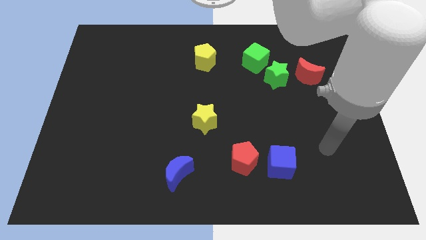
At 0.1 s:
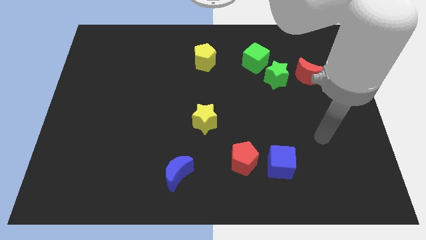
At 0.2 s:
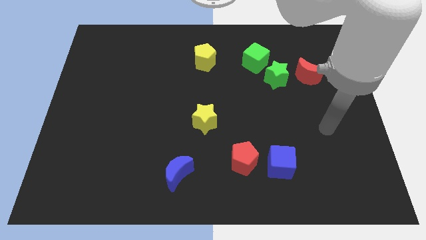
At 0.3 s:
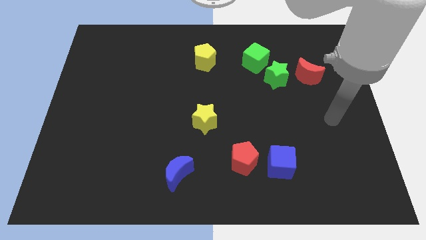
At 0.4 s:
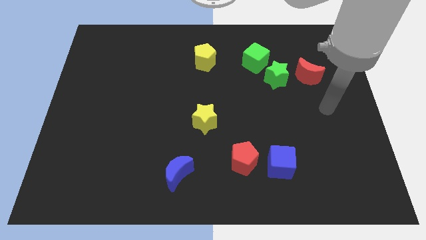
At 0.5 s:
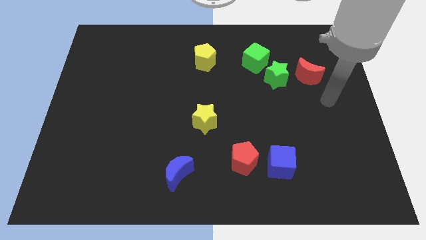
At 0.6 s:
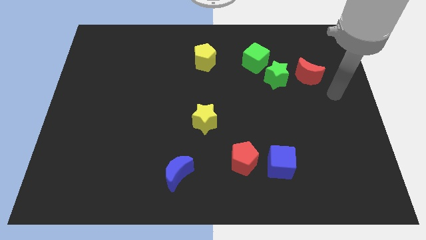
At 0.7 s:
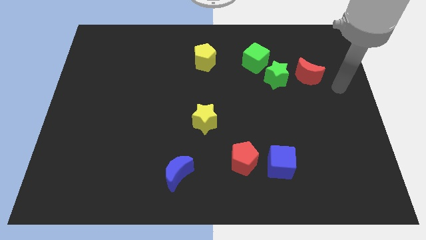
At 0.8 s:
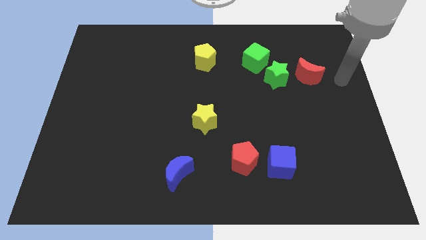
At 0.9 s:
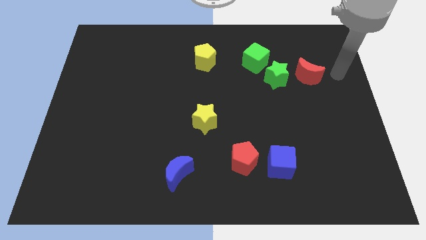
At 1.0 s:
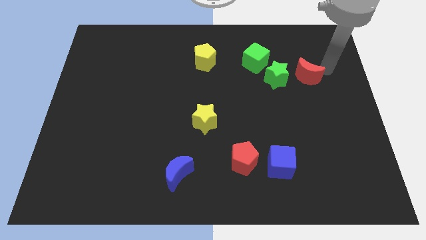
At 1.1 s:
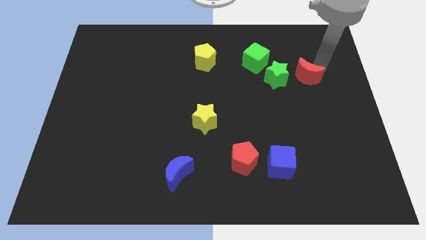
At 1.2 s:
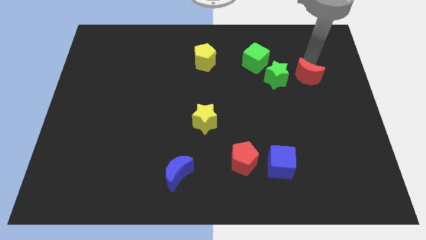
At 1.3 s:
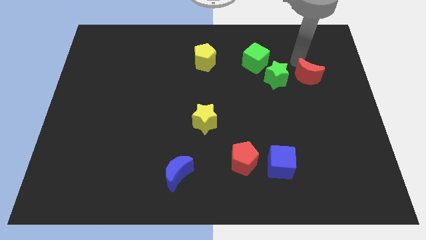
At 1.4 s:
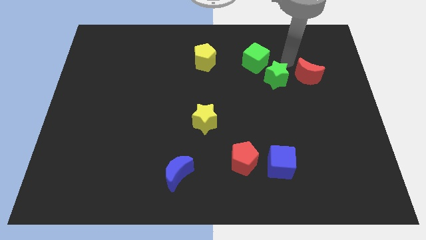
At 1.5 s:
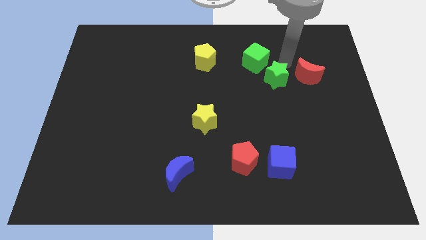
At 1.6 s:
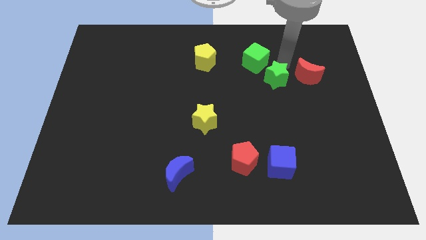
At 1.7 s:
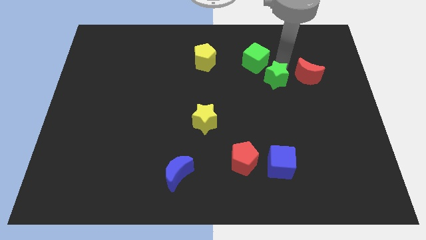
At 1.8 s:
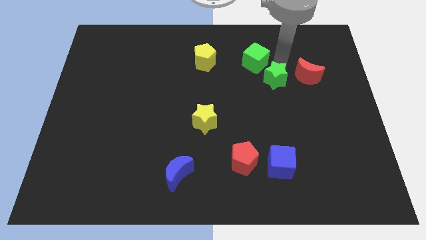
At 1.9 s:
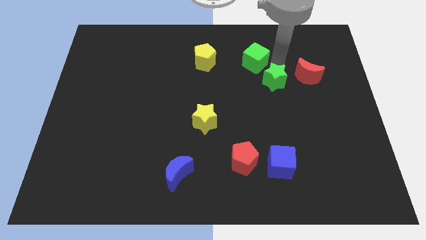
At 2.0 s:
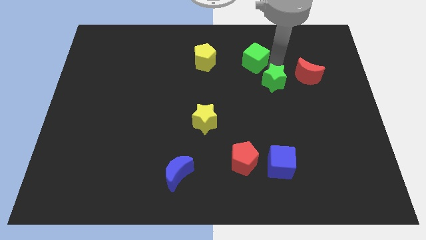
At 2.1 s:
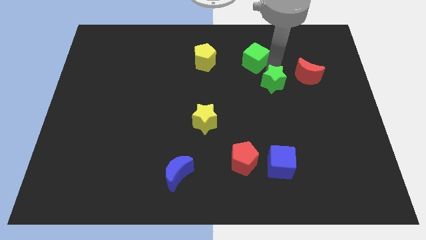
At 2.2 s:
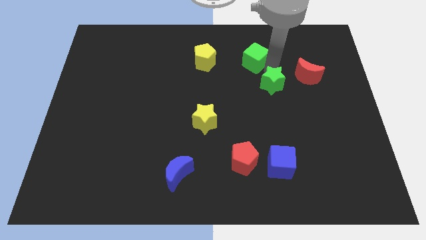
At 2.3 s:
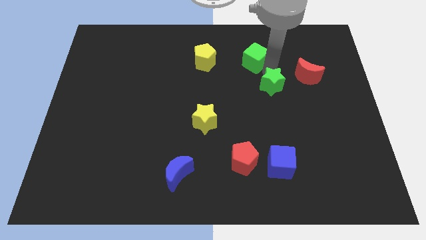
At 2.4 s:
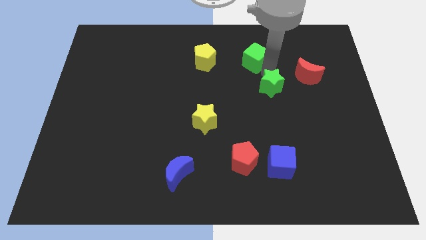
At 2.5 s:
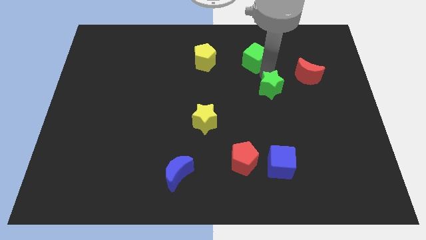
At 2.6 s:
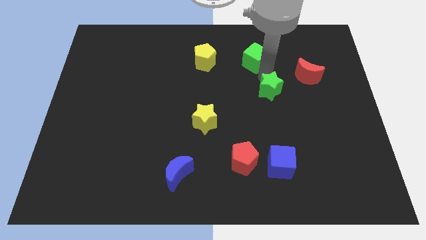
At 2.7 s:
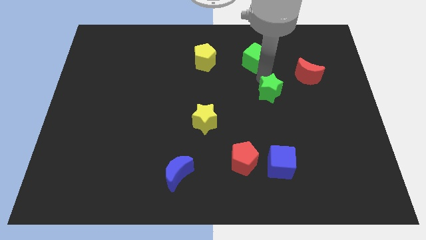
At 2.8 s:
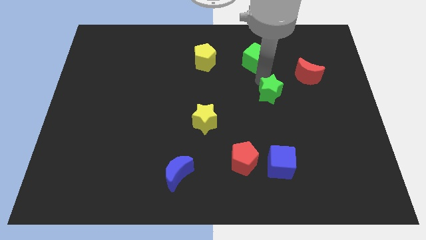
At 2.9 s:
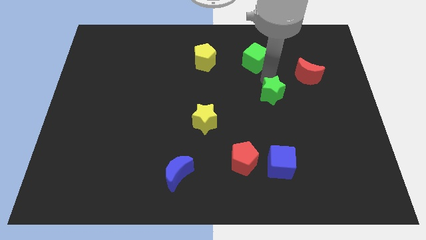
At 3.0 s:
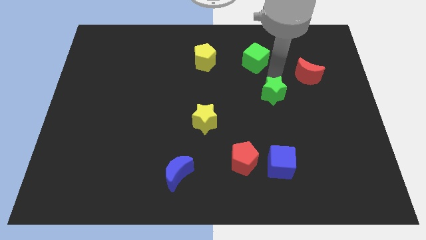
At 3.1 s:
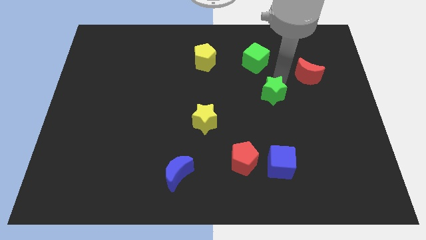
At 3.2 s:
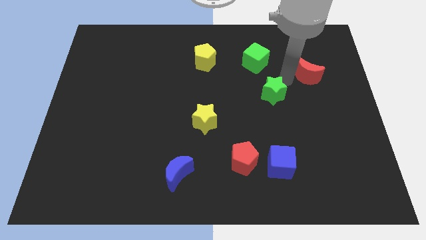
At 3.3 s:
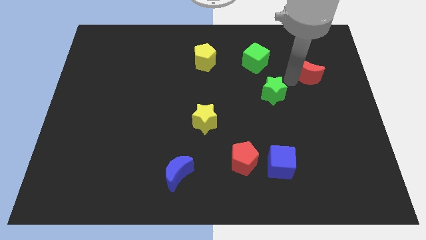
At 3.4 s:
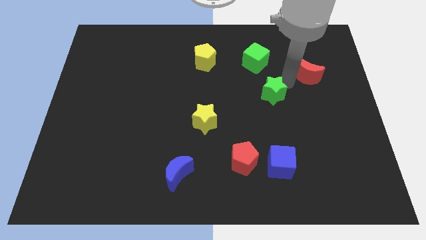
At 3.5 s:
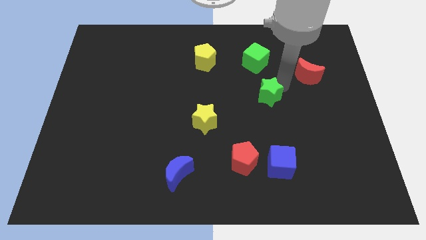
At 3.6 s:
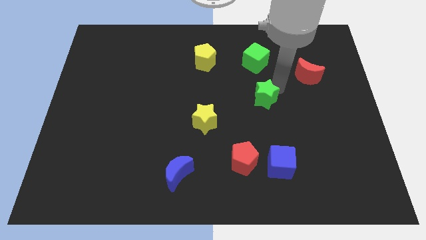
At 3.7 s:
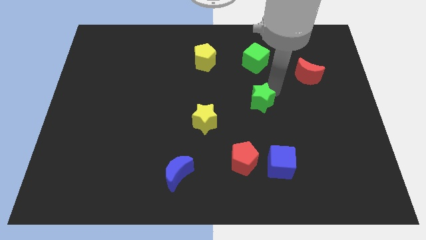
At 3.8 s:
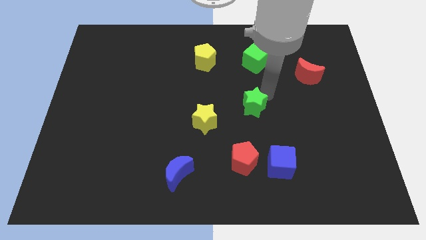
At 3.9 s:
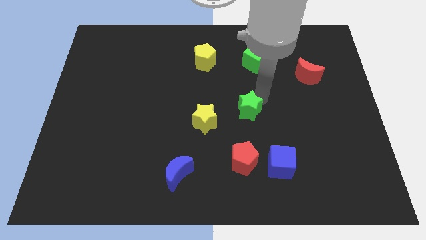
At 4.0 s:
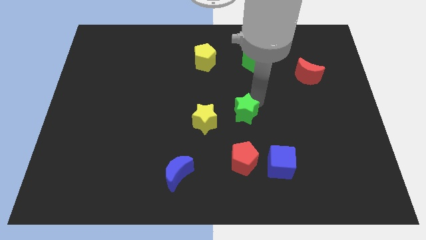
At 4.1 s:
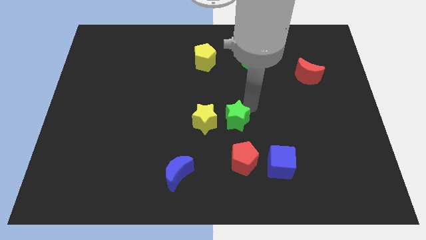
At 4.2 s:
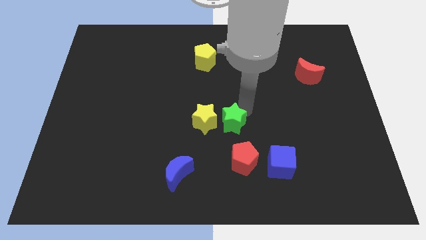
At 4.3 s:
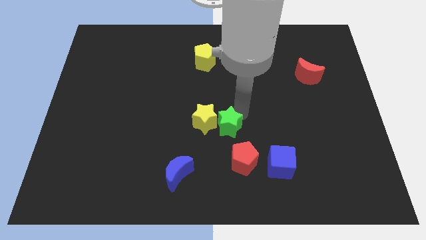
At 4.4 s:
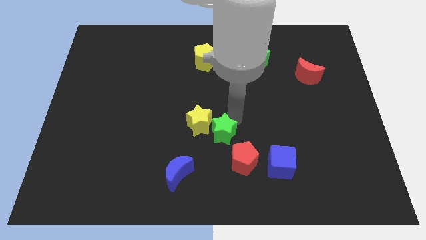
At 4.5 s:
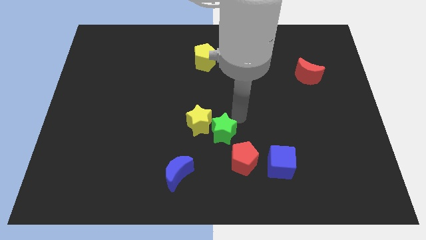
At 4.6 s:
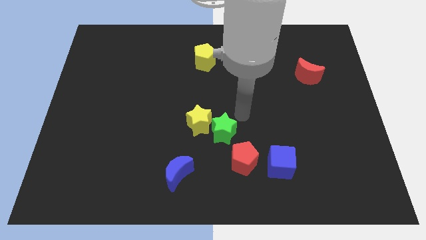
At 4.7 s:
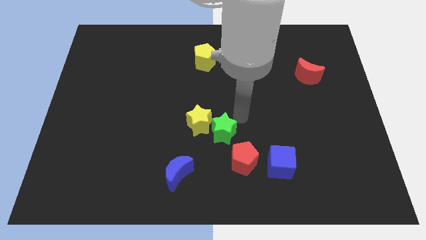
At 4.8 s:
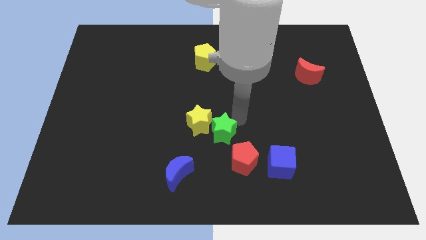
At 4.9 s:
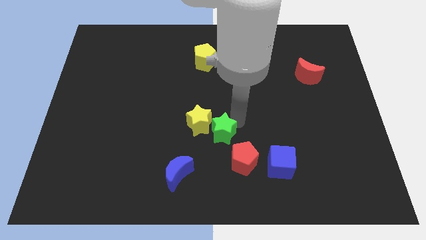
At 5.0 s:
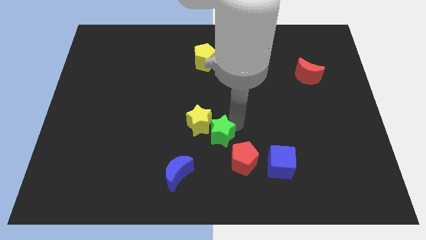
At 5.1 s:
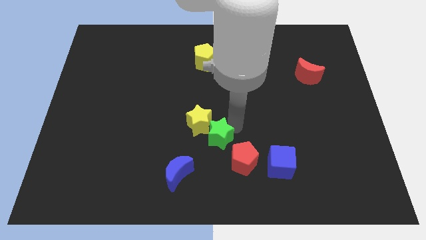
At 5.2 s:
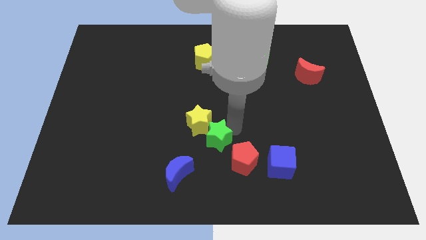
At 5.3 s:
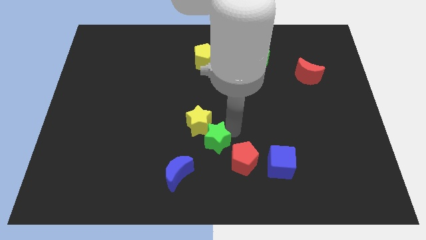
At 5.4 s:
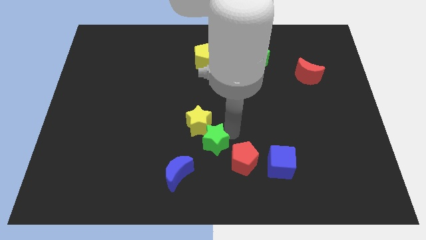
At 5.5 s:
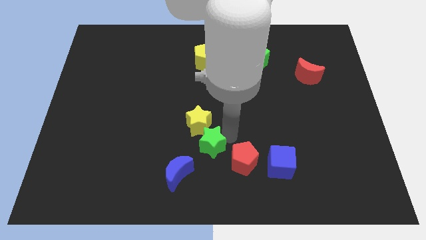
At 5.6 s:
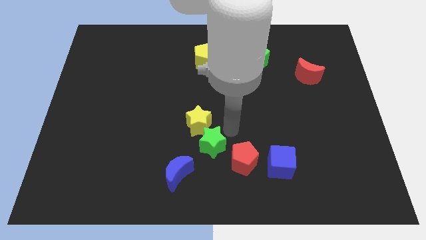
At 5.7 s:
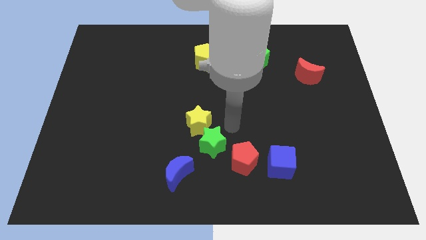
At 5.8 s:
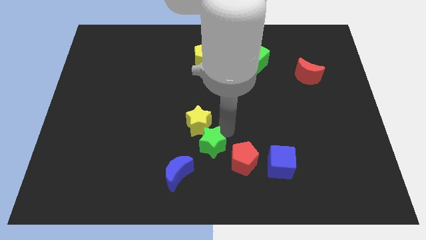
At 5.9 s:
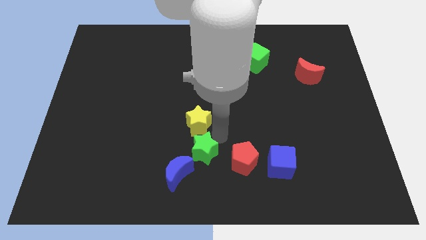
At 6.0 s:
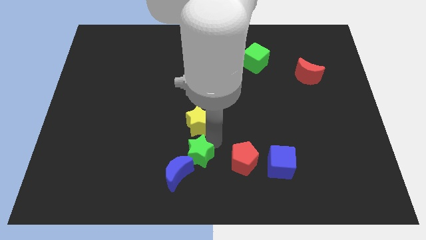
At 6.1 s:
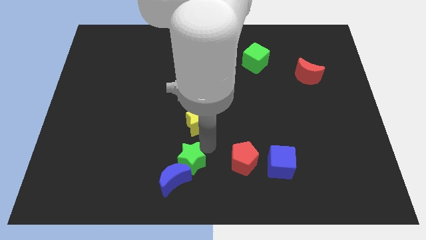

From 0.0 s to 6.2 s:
slide the green star next to the blue moon

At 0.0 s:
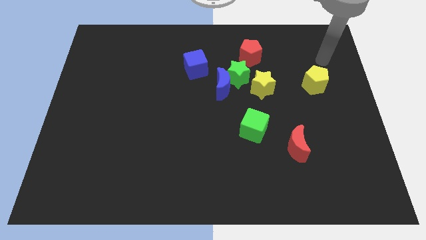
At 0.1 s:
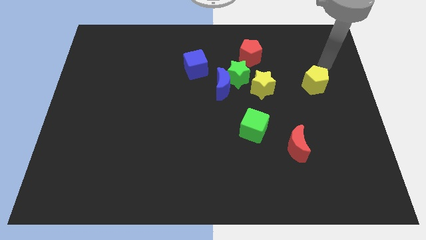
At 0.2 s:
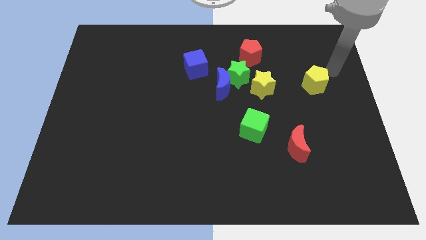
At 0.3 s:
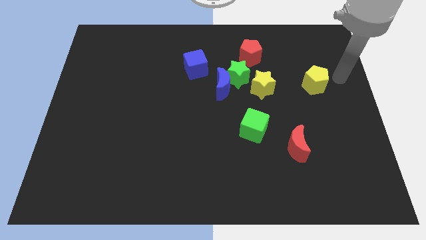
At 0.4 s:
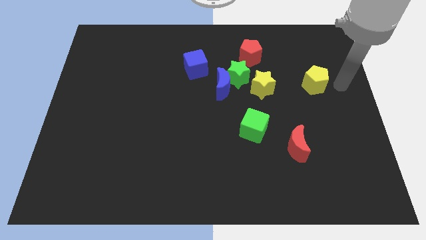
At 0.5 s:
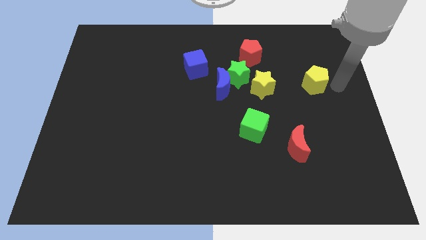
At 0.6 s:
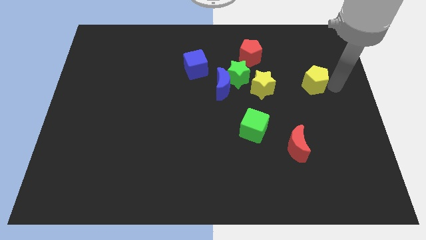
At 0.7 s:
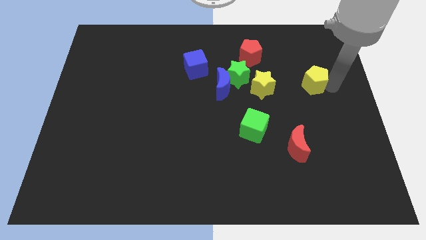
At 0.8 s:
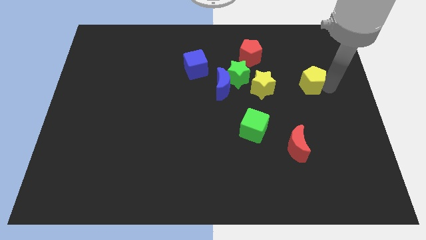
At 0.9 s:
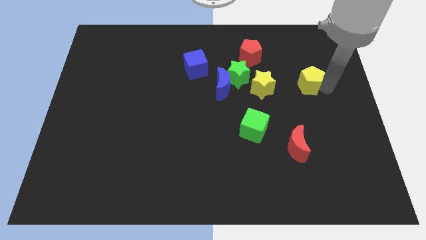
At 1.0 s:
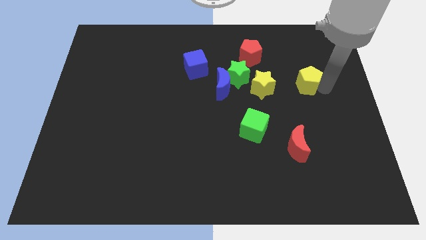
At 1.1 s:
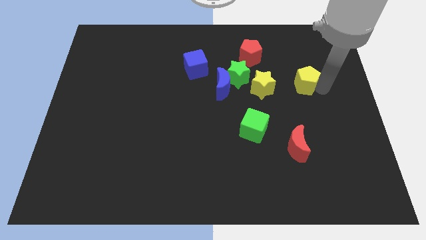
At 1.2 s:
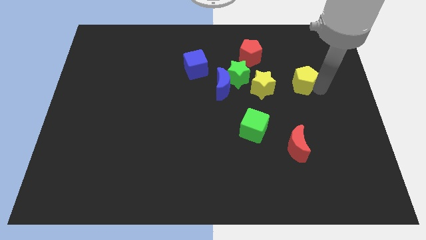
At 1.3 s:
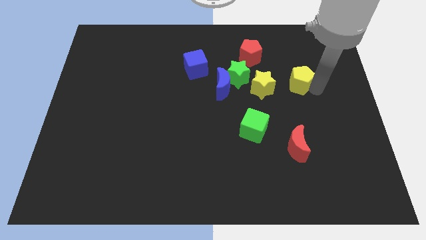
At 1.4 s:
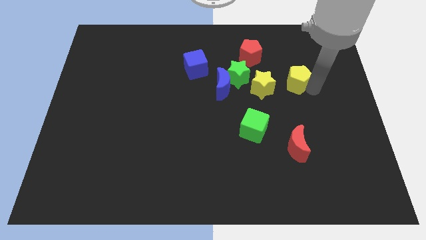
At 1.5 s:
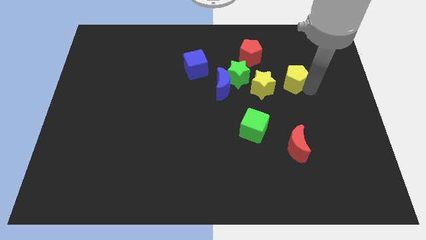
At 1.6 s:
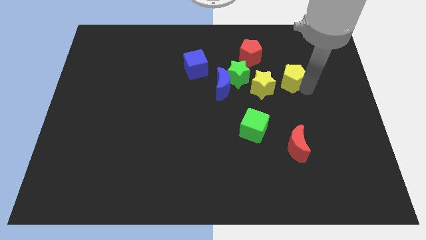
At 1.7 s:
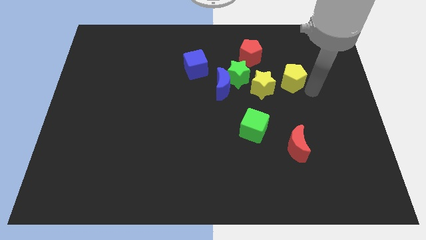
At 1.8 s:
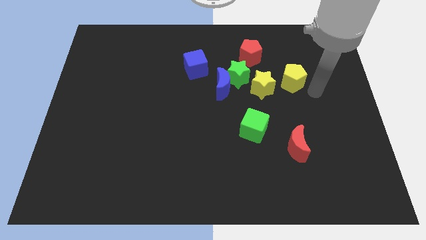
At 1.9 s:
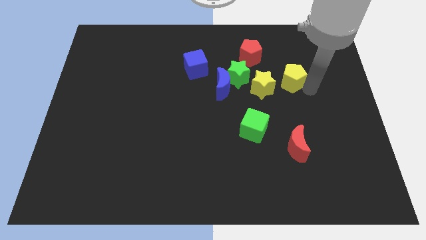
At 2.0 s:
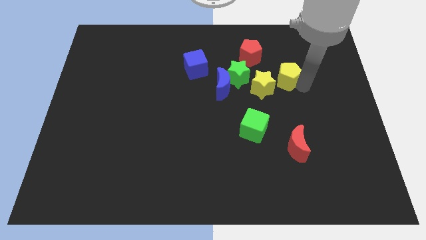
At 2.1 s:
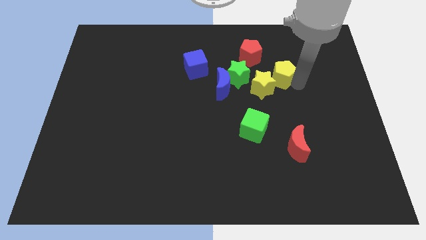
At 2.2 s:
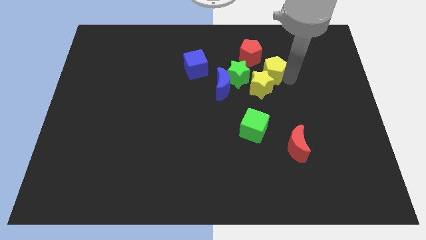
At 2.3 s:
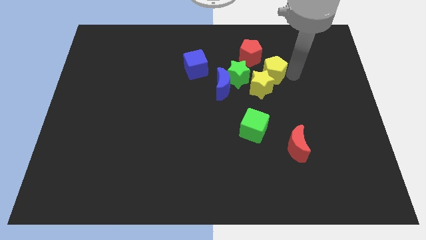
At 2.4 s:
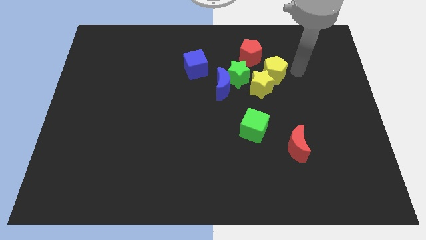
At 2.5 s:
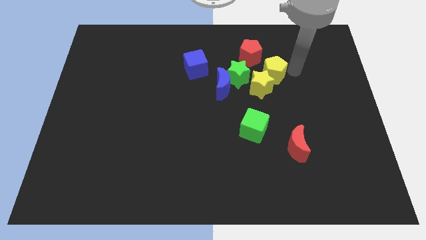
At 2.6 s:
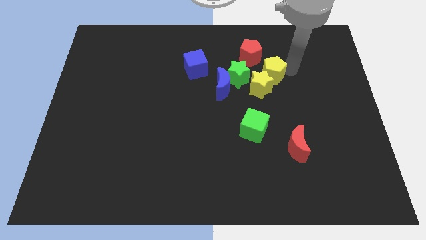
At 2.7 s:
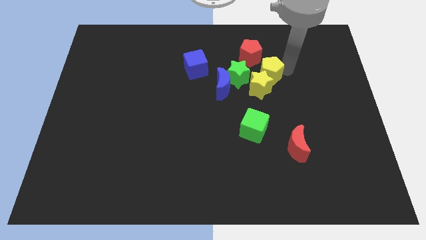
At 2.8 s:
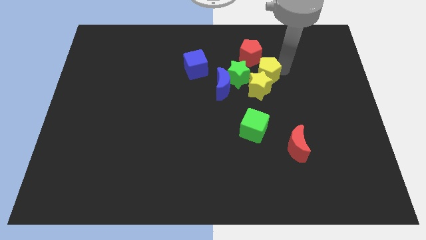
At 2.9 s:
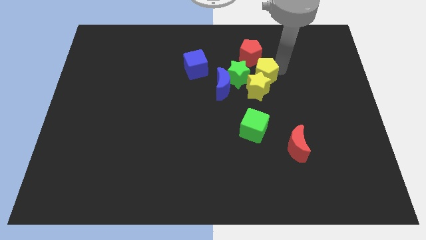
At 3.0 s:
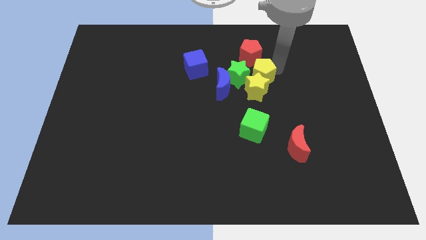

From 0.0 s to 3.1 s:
slide the yellow pentagon next to the green star
